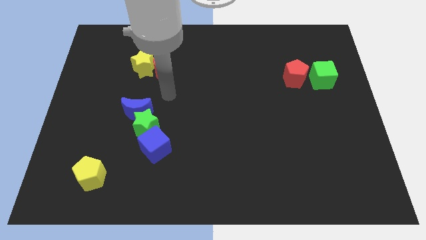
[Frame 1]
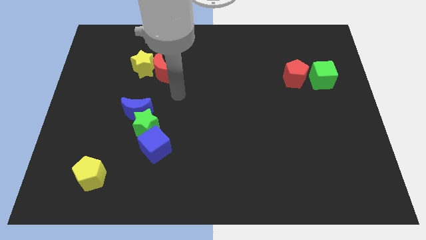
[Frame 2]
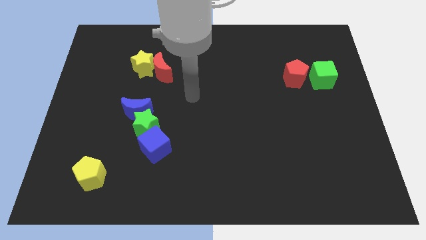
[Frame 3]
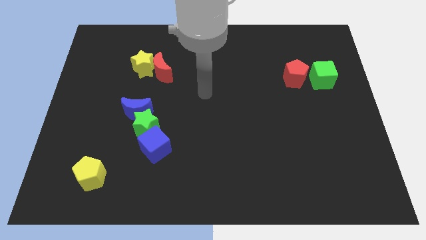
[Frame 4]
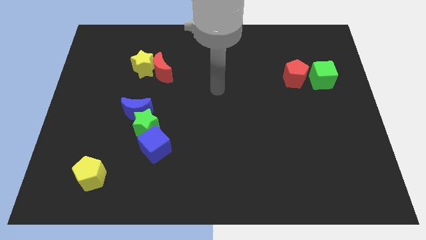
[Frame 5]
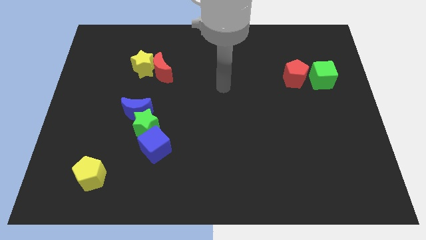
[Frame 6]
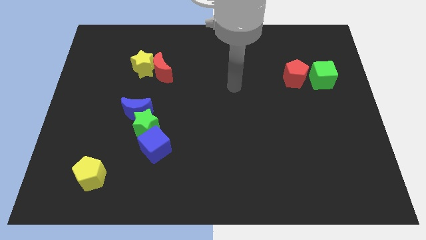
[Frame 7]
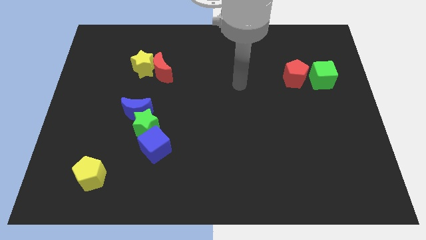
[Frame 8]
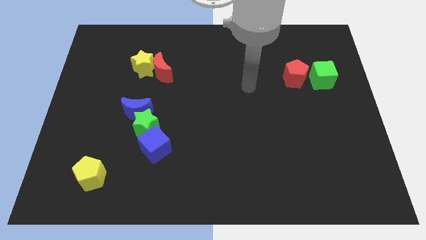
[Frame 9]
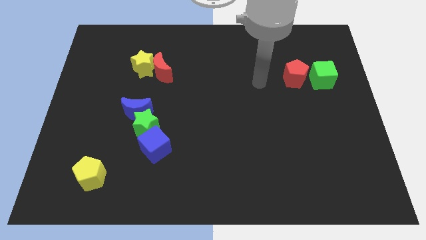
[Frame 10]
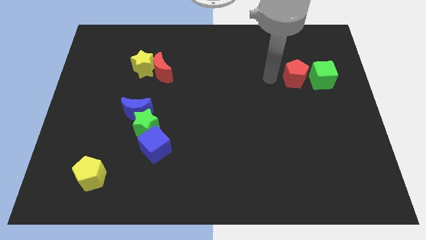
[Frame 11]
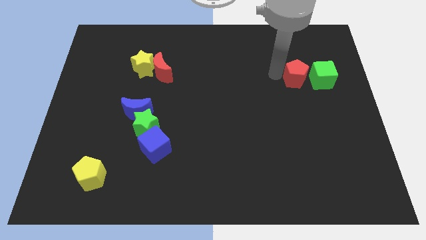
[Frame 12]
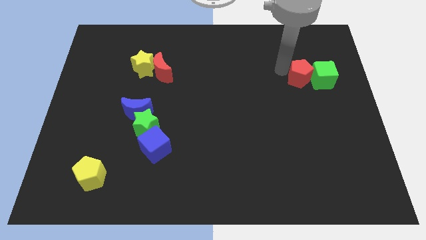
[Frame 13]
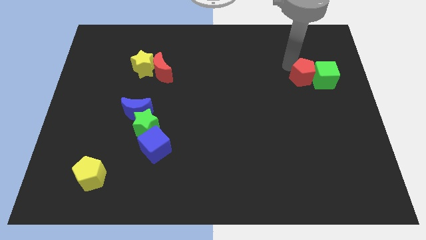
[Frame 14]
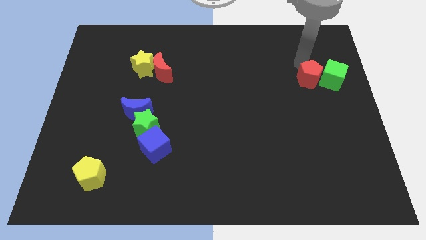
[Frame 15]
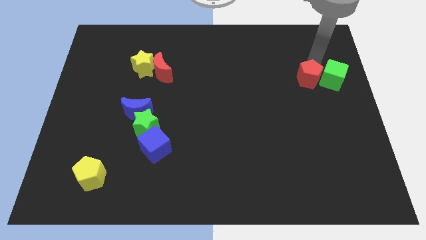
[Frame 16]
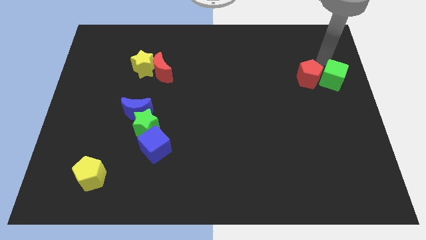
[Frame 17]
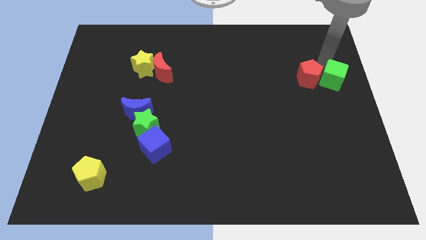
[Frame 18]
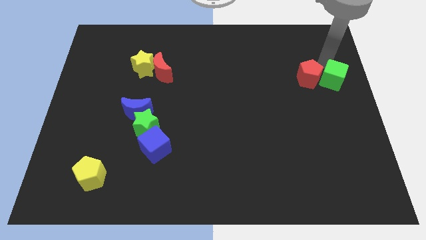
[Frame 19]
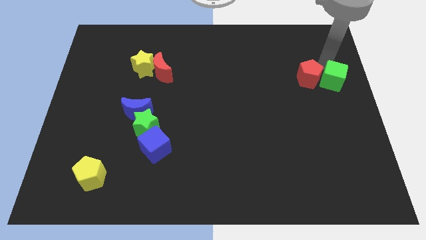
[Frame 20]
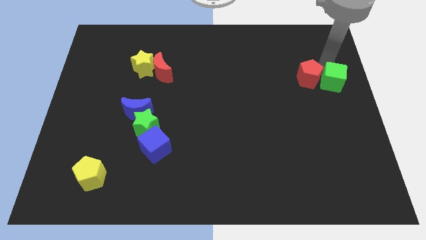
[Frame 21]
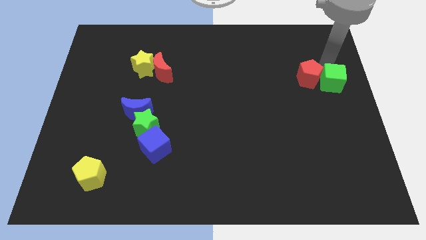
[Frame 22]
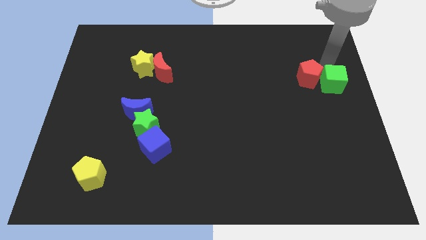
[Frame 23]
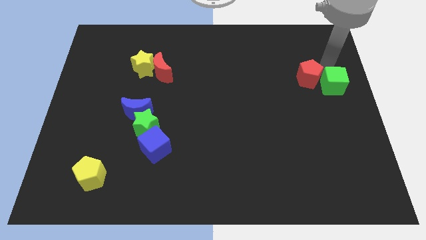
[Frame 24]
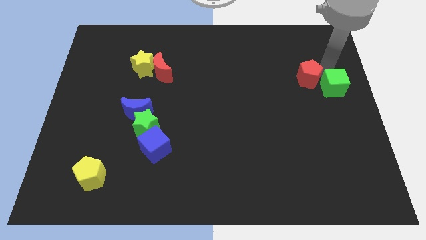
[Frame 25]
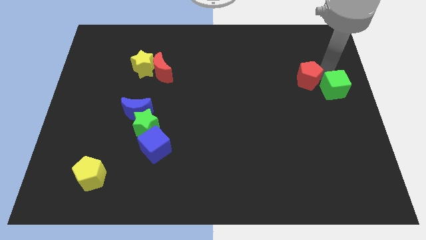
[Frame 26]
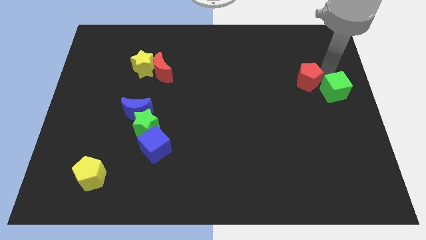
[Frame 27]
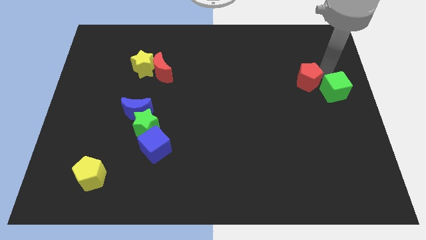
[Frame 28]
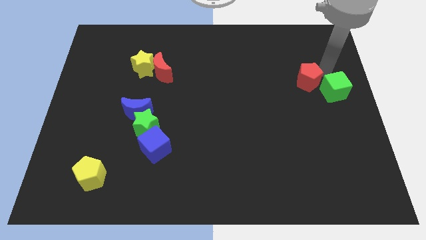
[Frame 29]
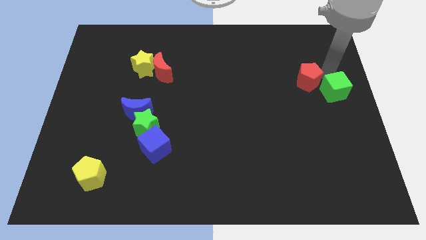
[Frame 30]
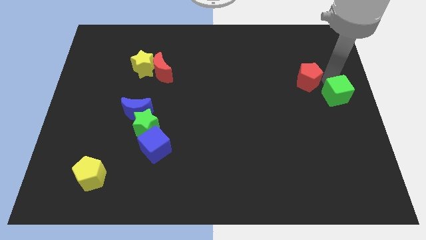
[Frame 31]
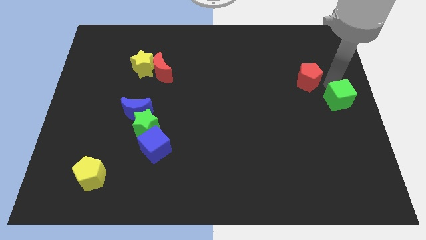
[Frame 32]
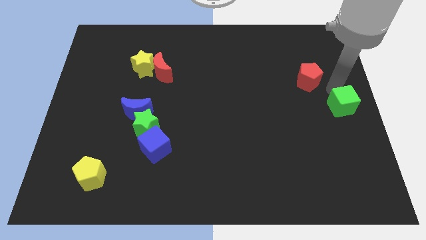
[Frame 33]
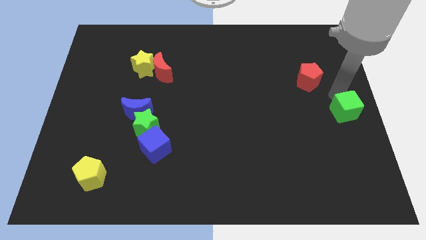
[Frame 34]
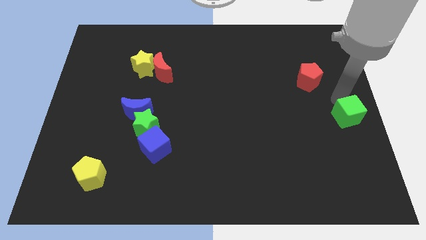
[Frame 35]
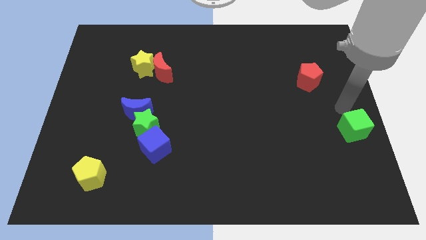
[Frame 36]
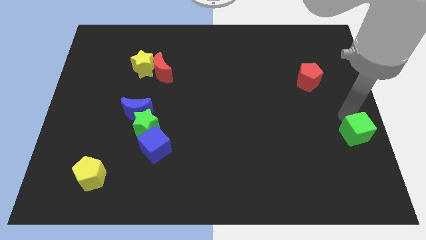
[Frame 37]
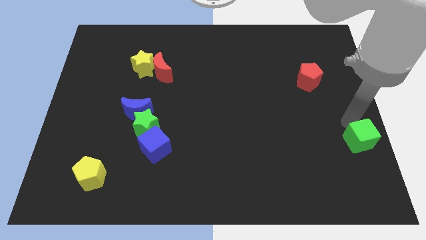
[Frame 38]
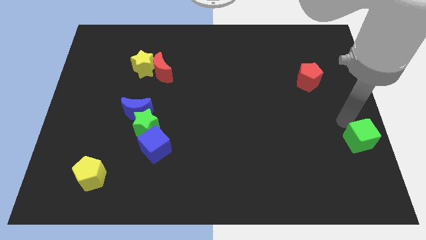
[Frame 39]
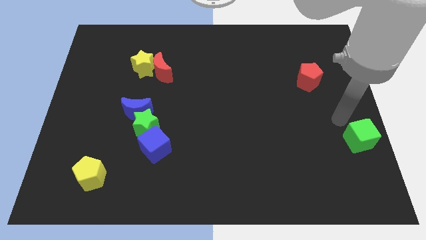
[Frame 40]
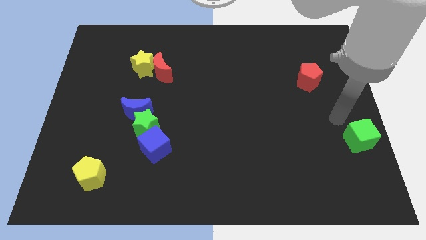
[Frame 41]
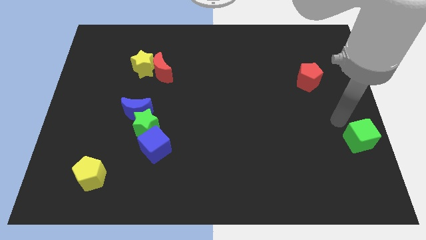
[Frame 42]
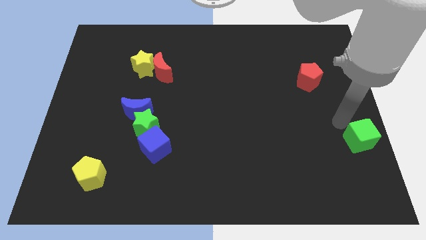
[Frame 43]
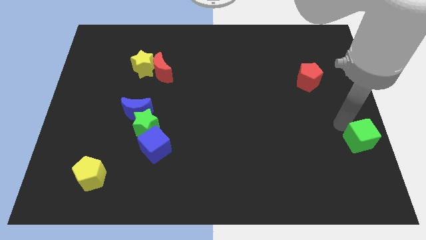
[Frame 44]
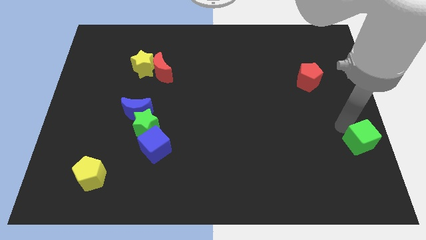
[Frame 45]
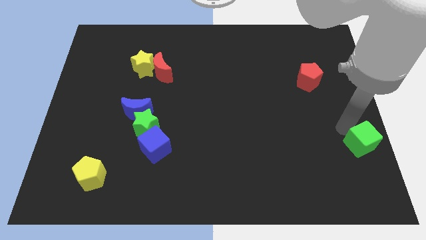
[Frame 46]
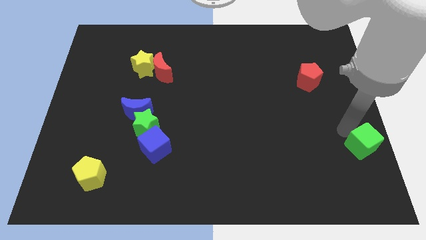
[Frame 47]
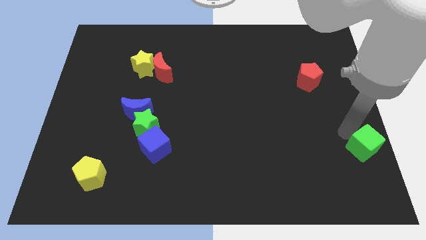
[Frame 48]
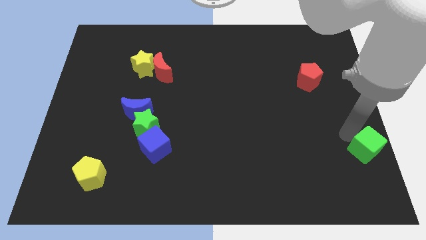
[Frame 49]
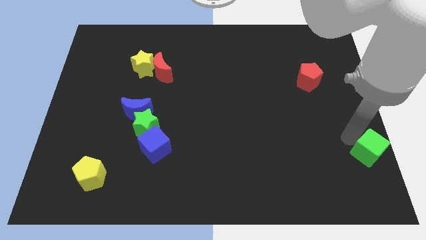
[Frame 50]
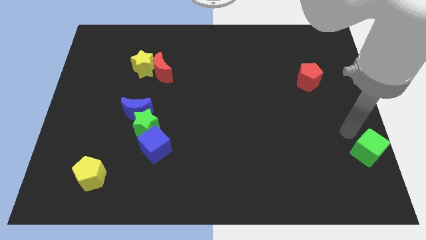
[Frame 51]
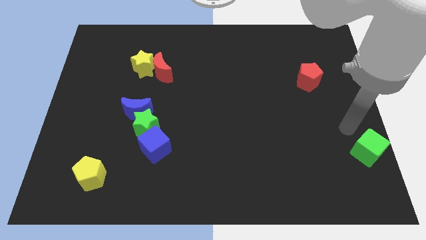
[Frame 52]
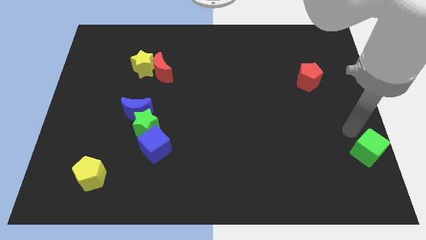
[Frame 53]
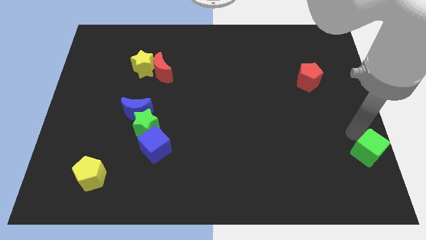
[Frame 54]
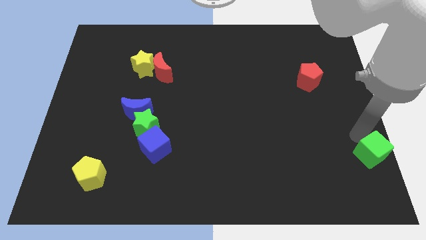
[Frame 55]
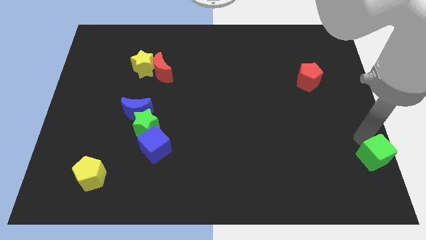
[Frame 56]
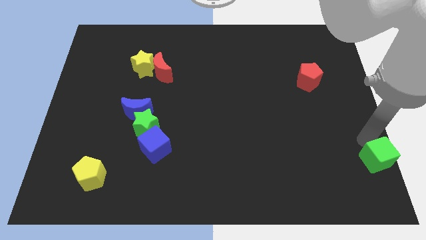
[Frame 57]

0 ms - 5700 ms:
slide the green cube to the bottom right corner

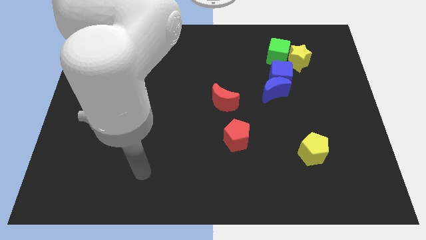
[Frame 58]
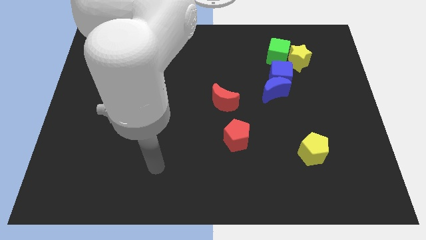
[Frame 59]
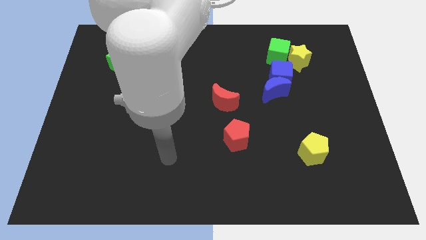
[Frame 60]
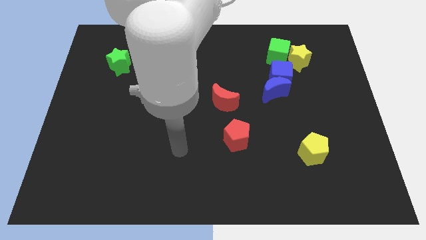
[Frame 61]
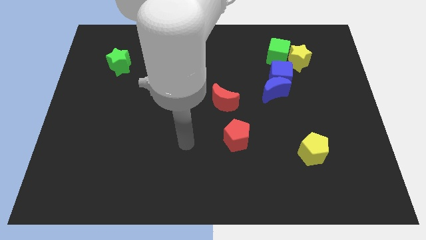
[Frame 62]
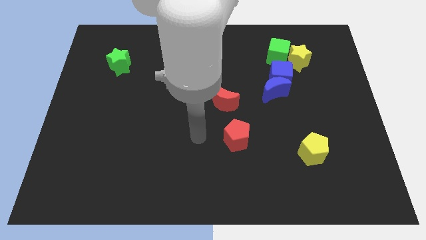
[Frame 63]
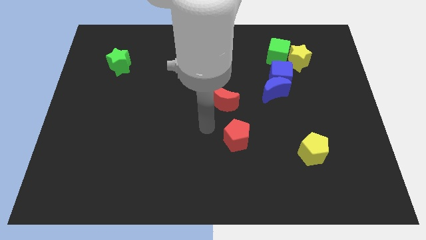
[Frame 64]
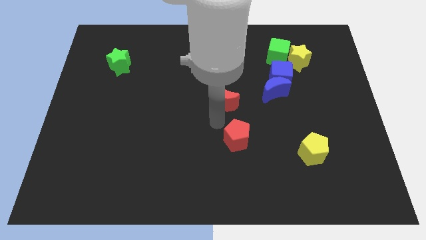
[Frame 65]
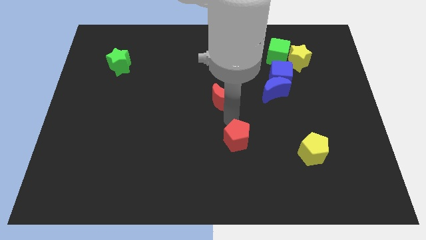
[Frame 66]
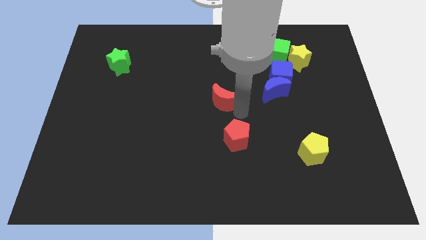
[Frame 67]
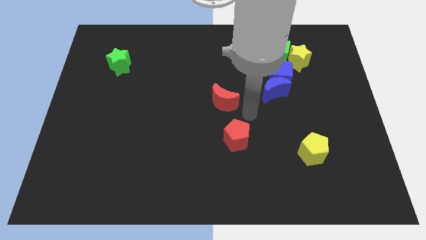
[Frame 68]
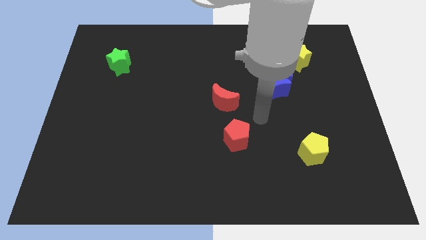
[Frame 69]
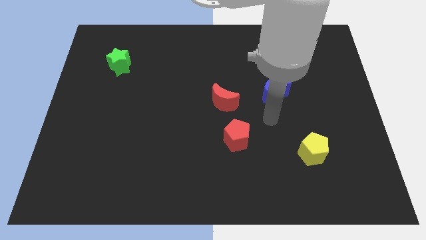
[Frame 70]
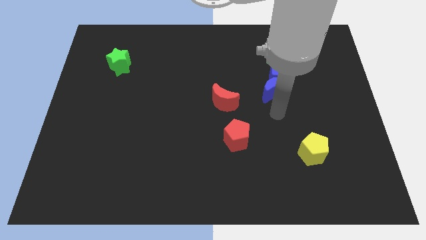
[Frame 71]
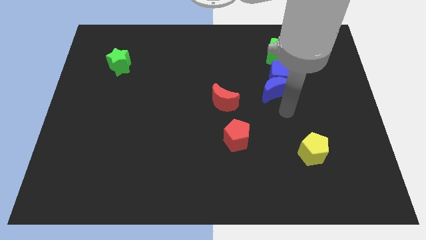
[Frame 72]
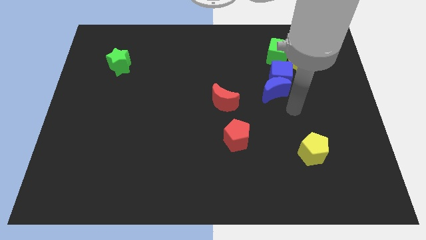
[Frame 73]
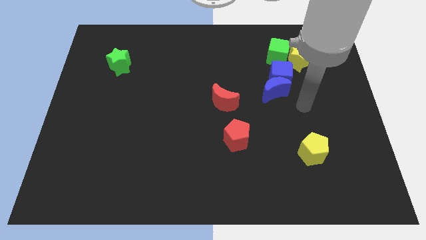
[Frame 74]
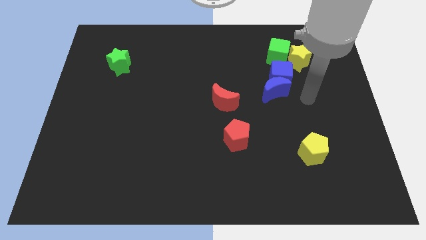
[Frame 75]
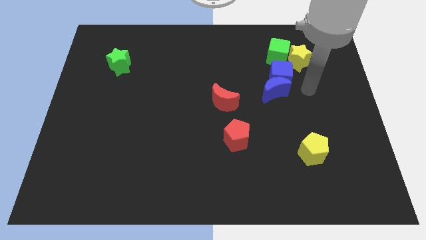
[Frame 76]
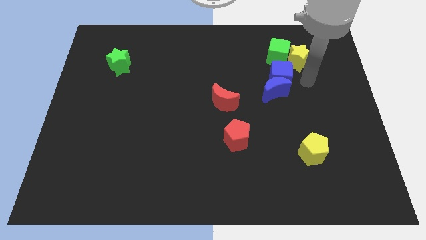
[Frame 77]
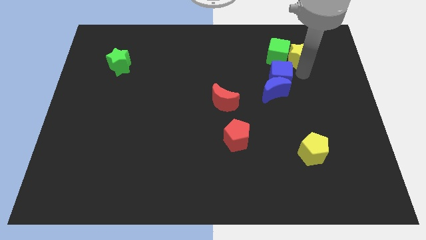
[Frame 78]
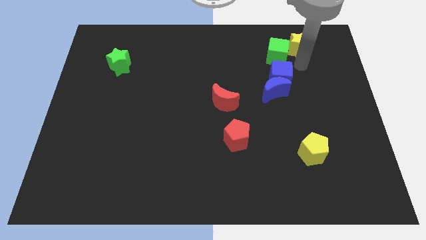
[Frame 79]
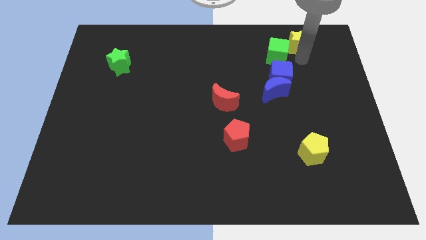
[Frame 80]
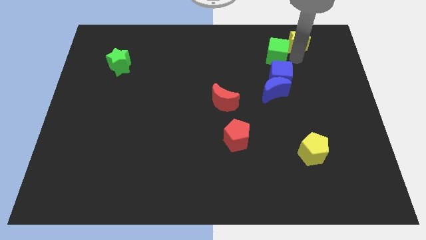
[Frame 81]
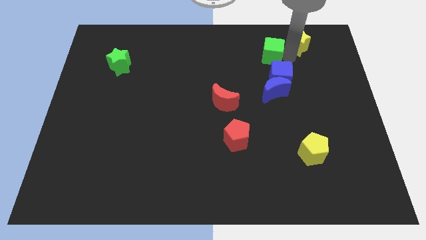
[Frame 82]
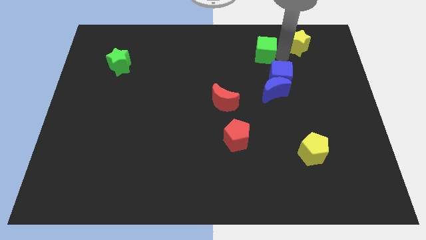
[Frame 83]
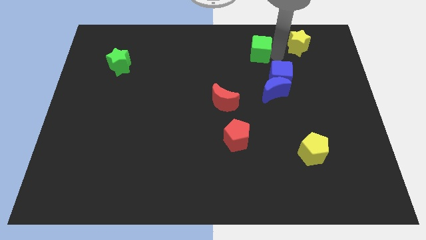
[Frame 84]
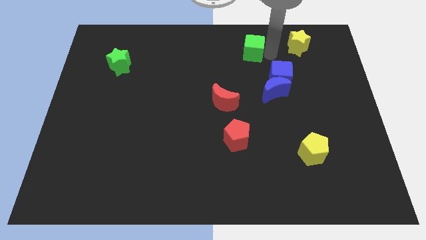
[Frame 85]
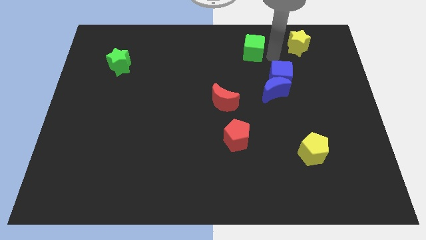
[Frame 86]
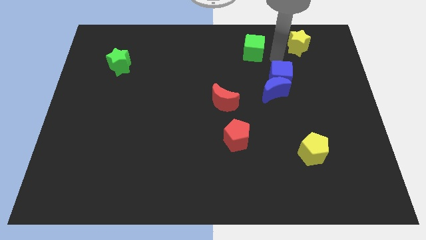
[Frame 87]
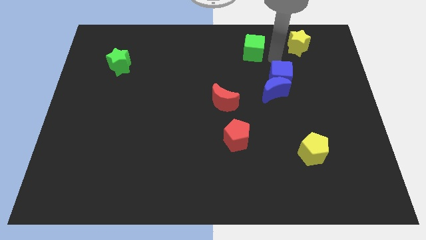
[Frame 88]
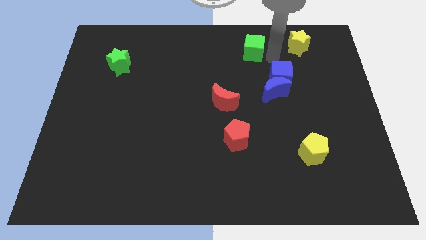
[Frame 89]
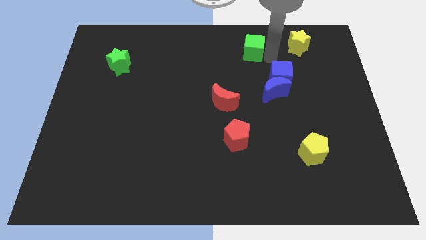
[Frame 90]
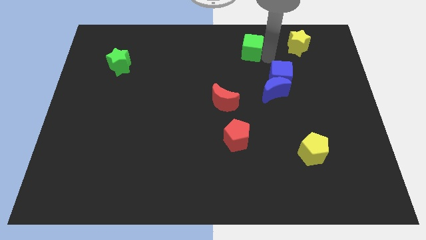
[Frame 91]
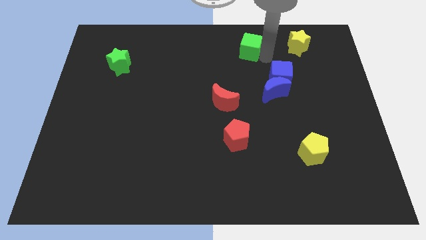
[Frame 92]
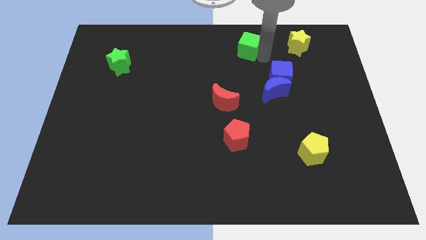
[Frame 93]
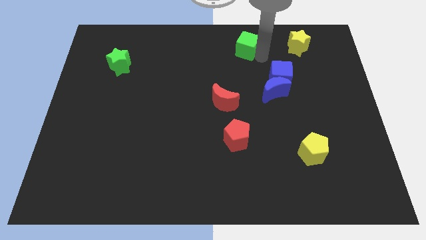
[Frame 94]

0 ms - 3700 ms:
slide the green cube to the towards your base
